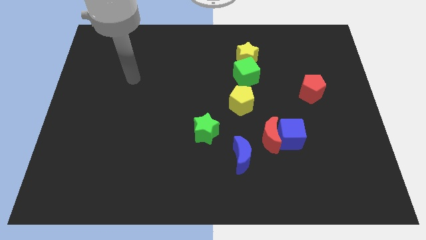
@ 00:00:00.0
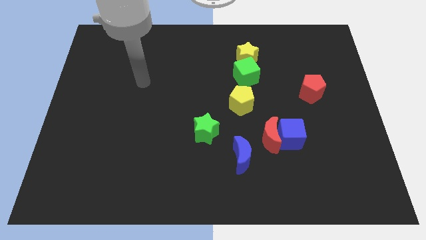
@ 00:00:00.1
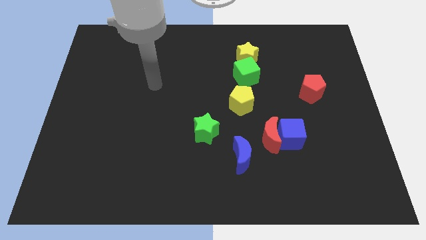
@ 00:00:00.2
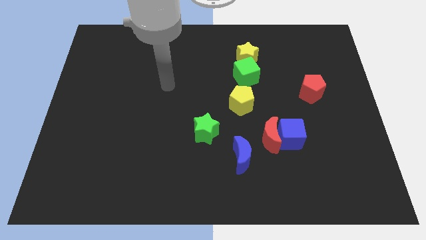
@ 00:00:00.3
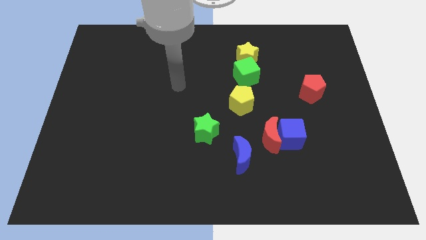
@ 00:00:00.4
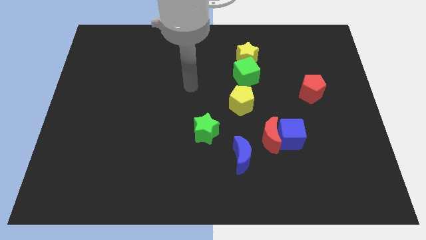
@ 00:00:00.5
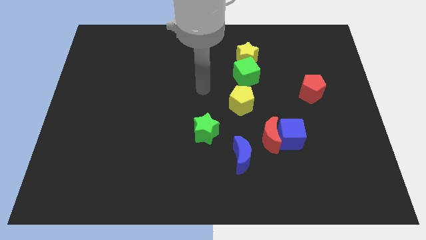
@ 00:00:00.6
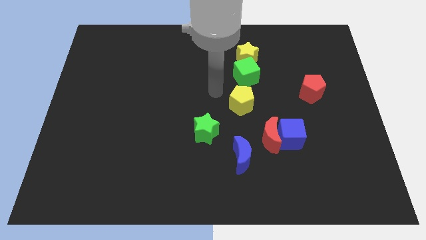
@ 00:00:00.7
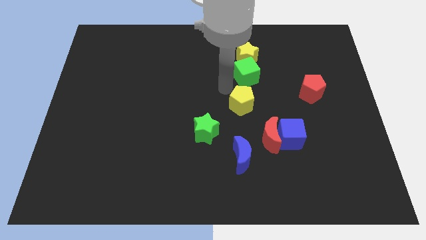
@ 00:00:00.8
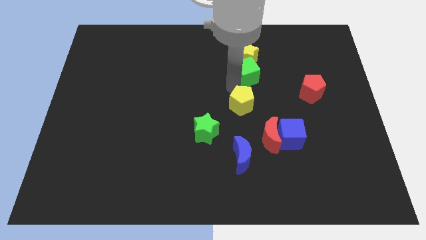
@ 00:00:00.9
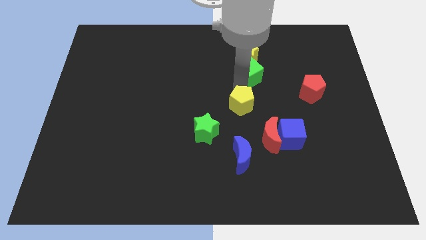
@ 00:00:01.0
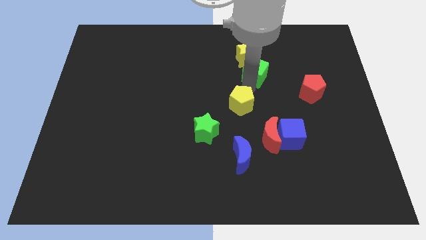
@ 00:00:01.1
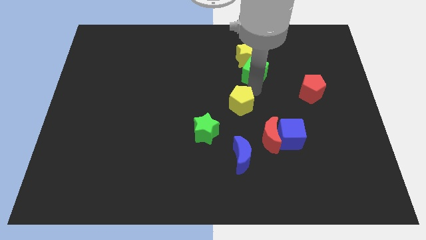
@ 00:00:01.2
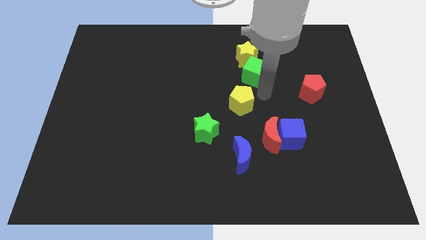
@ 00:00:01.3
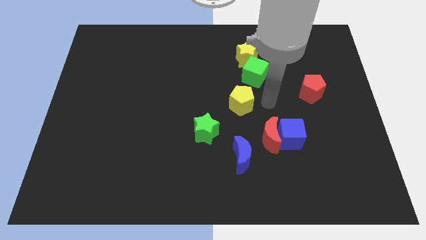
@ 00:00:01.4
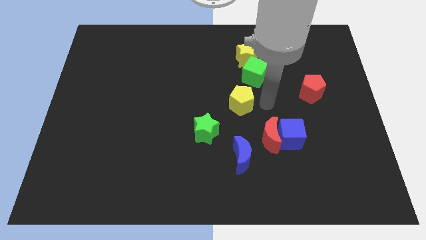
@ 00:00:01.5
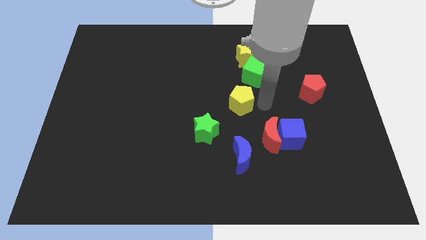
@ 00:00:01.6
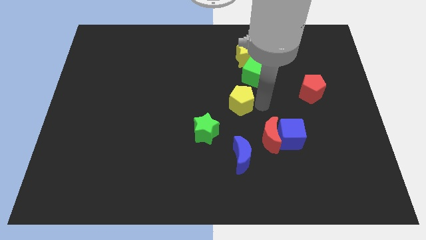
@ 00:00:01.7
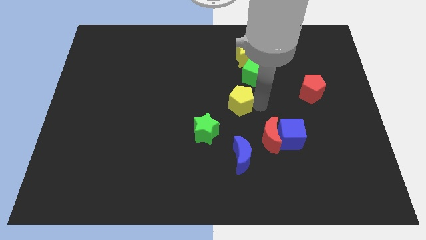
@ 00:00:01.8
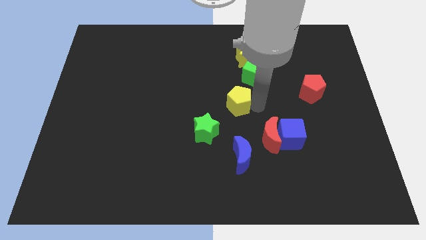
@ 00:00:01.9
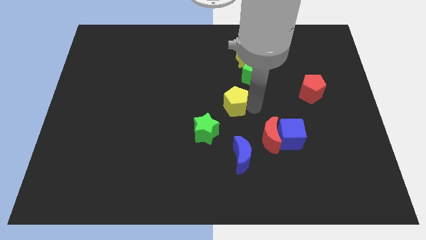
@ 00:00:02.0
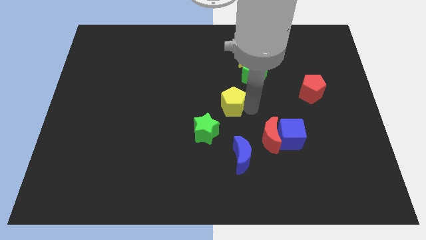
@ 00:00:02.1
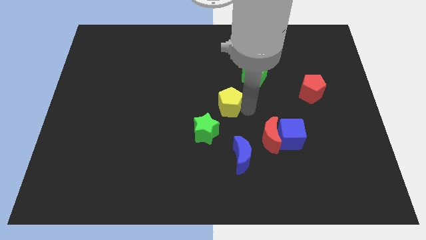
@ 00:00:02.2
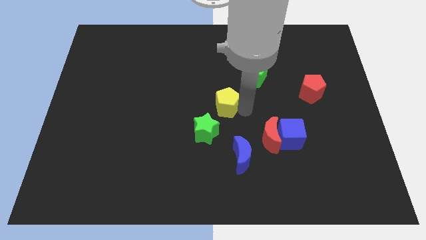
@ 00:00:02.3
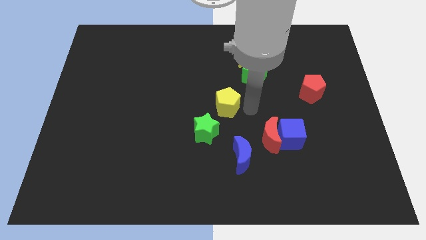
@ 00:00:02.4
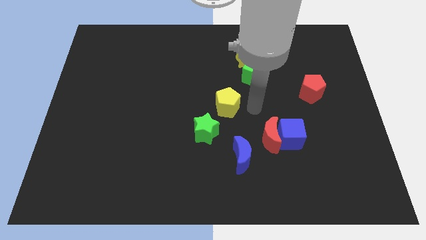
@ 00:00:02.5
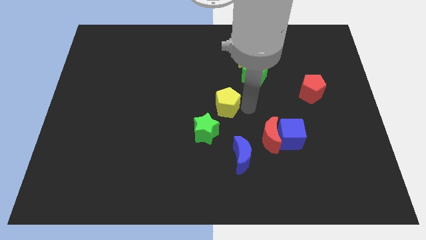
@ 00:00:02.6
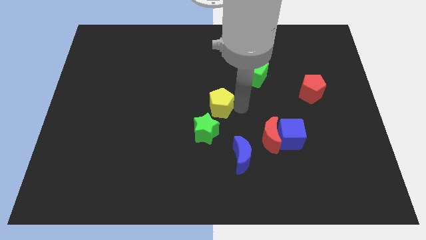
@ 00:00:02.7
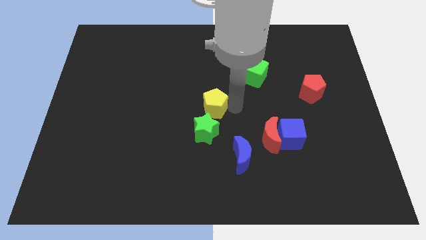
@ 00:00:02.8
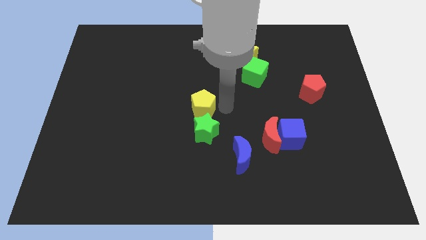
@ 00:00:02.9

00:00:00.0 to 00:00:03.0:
slightly slide the yellow pentagon left

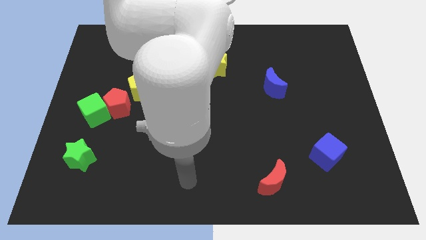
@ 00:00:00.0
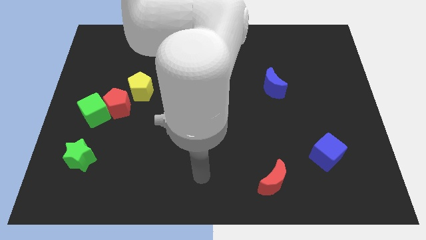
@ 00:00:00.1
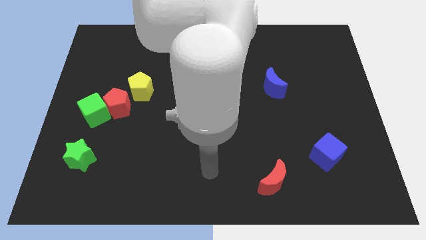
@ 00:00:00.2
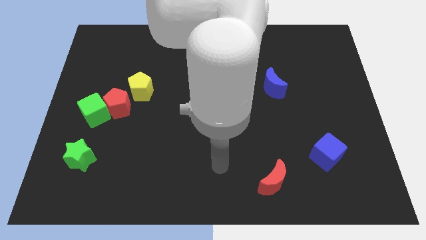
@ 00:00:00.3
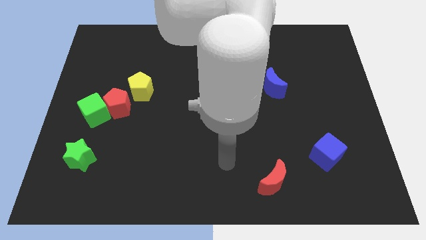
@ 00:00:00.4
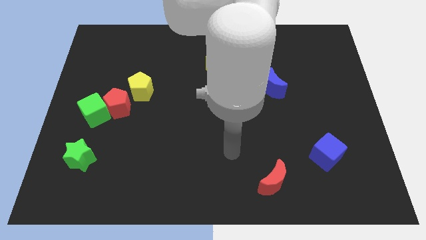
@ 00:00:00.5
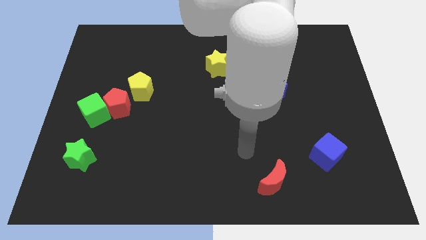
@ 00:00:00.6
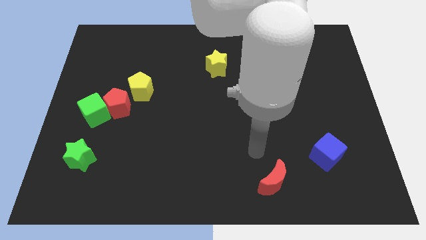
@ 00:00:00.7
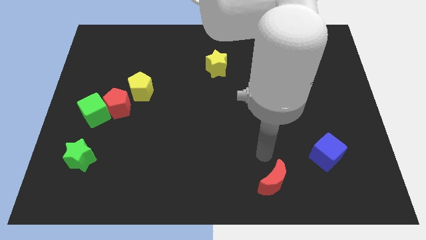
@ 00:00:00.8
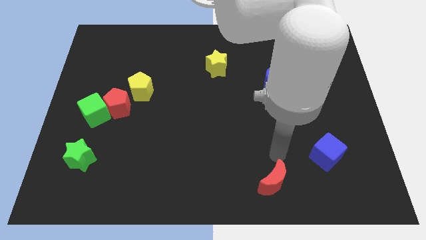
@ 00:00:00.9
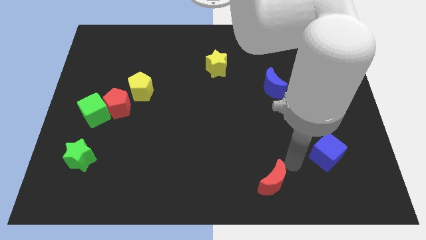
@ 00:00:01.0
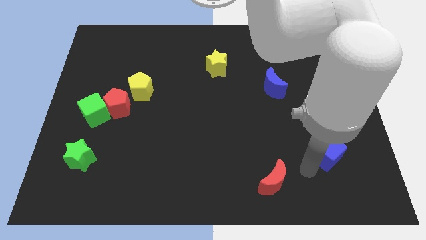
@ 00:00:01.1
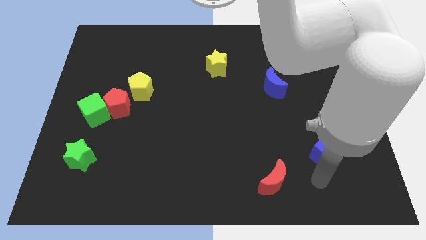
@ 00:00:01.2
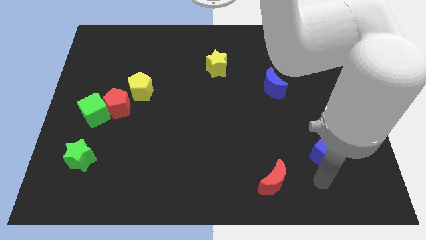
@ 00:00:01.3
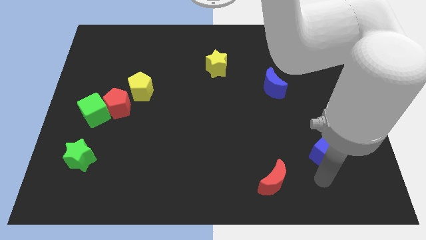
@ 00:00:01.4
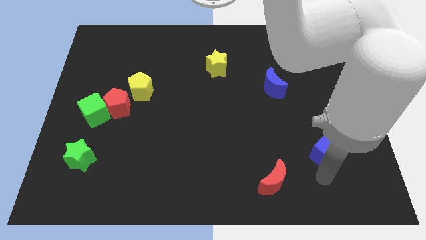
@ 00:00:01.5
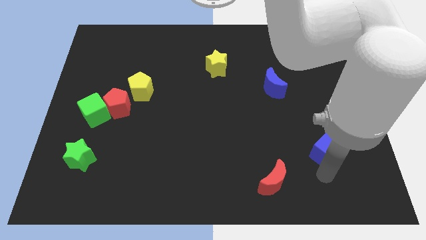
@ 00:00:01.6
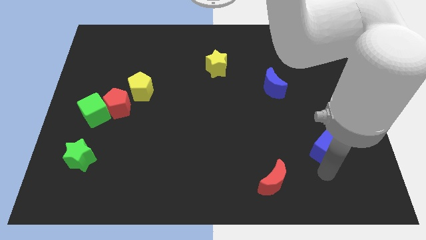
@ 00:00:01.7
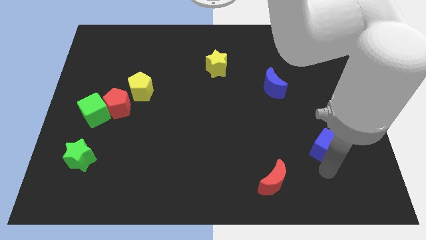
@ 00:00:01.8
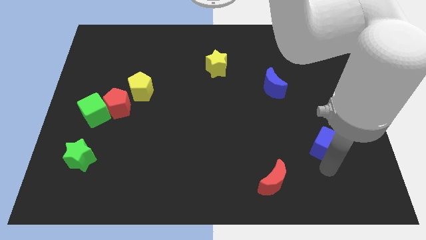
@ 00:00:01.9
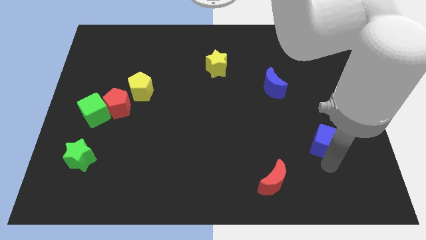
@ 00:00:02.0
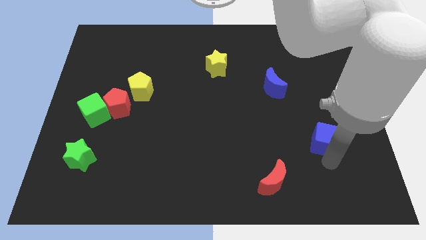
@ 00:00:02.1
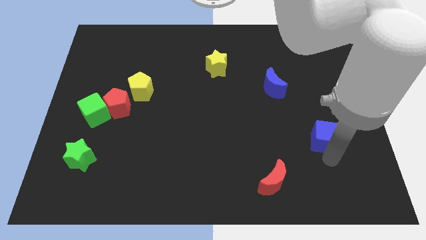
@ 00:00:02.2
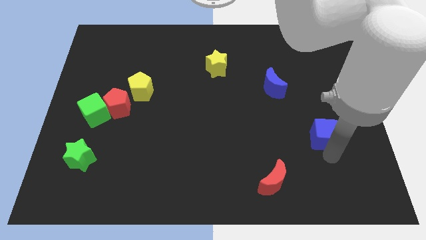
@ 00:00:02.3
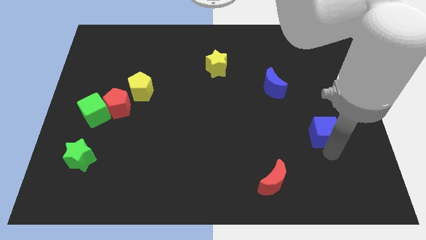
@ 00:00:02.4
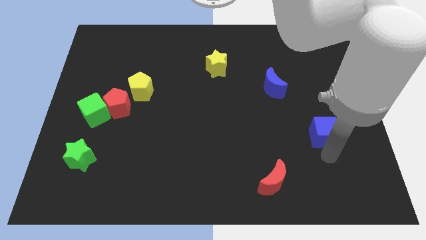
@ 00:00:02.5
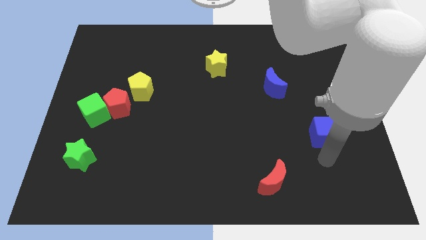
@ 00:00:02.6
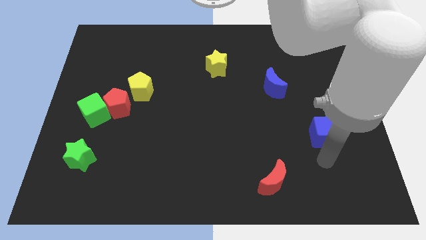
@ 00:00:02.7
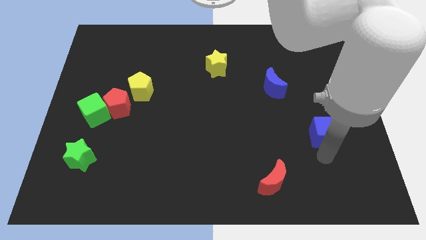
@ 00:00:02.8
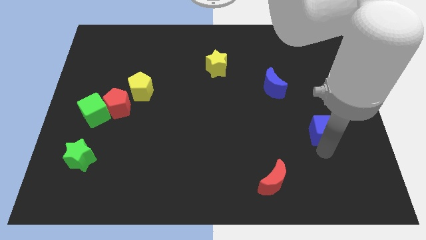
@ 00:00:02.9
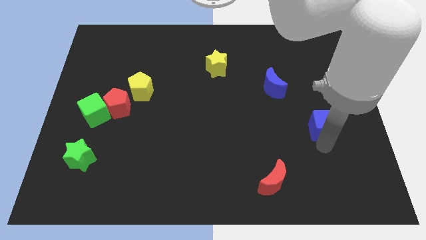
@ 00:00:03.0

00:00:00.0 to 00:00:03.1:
slide the blue cube up somewhat

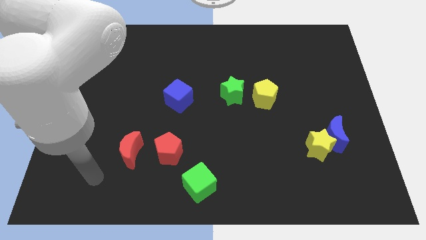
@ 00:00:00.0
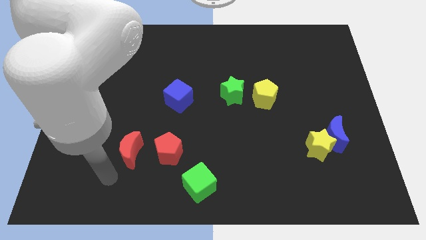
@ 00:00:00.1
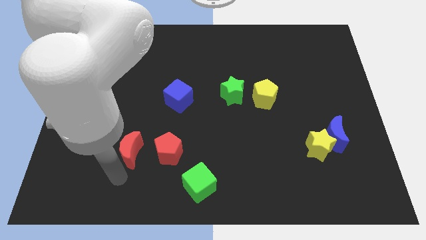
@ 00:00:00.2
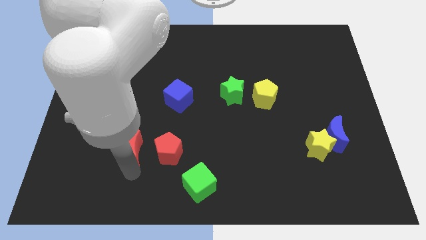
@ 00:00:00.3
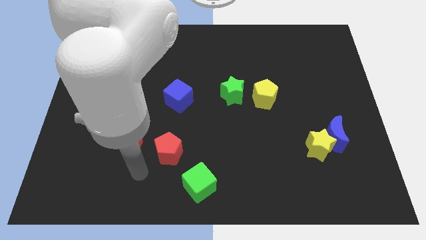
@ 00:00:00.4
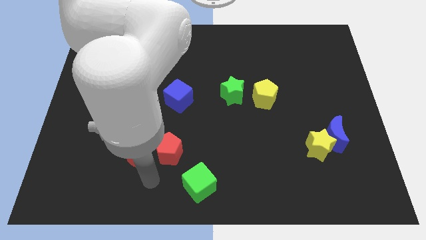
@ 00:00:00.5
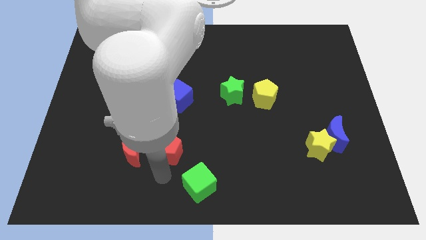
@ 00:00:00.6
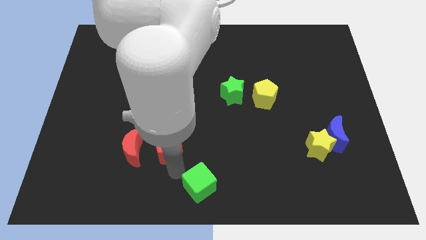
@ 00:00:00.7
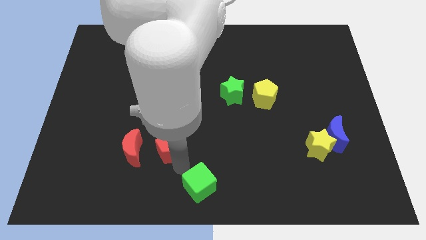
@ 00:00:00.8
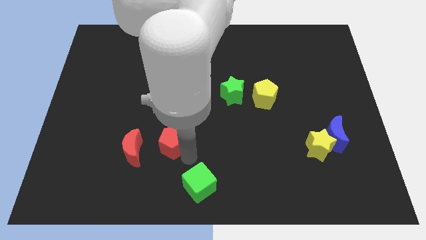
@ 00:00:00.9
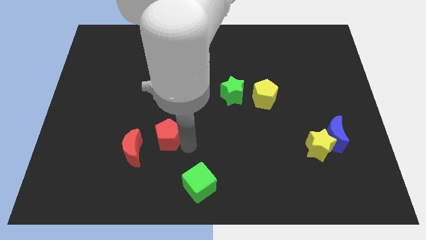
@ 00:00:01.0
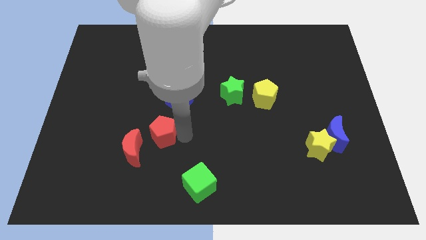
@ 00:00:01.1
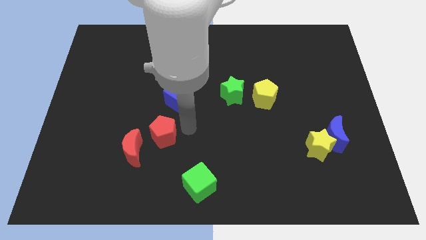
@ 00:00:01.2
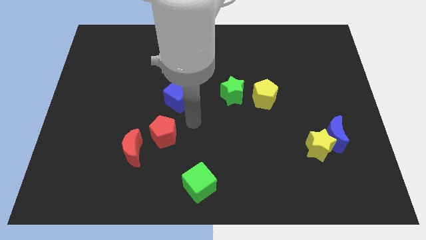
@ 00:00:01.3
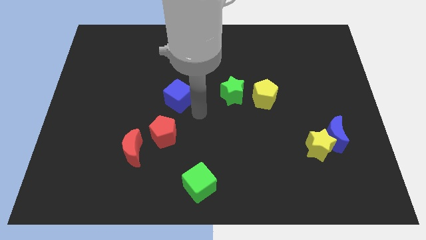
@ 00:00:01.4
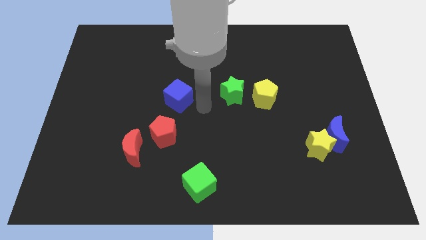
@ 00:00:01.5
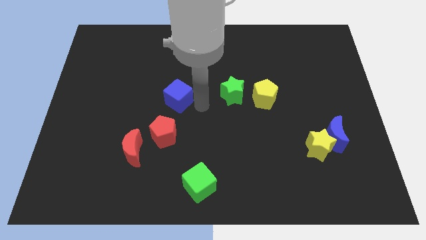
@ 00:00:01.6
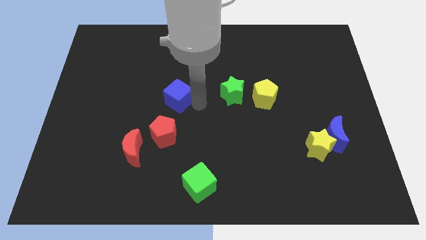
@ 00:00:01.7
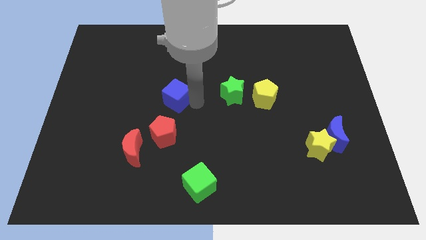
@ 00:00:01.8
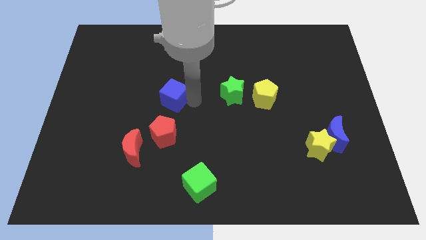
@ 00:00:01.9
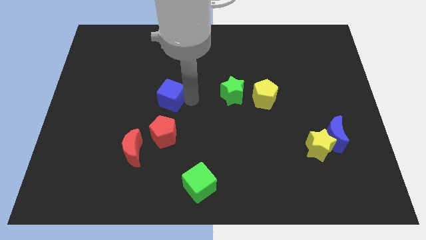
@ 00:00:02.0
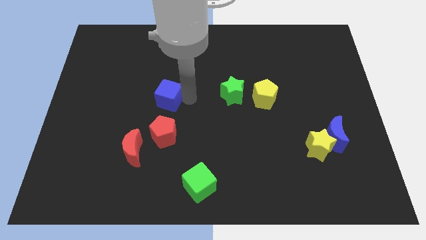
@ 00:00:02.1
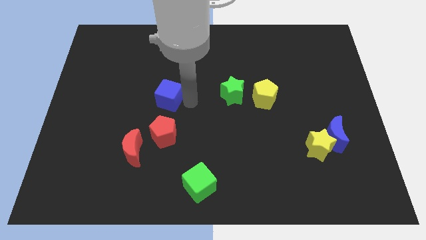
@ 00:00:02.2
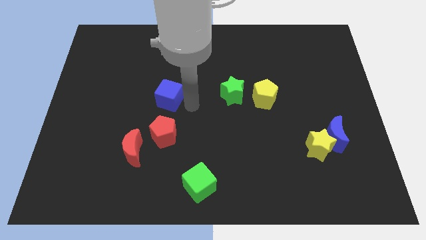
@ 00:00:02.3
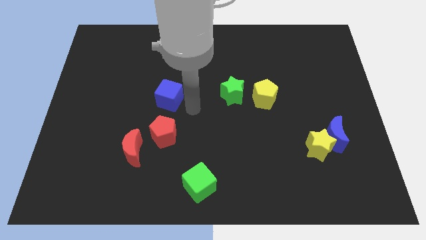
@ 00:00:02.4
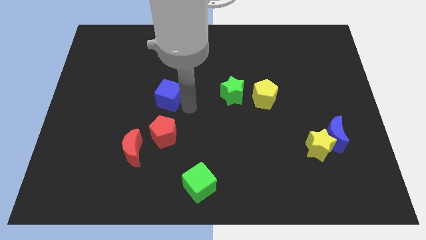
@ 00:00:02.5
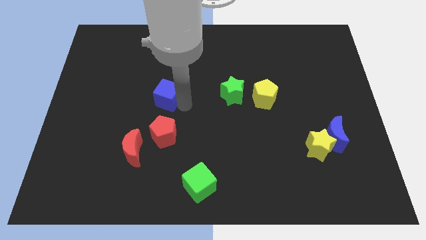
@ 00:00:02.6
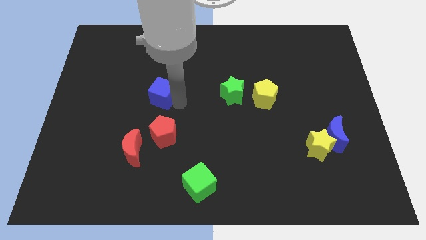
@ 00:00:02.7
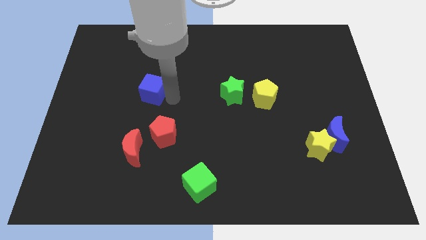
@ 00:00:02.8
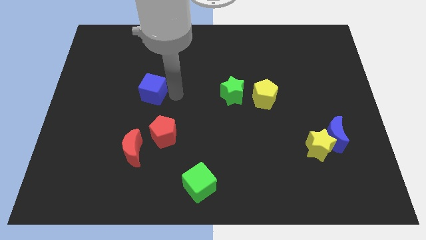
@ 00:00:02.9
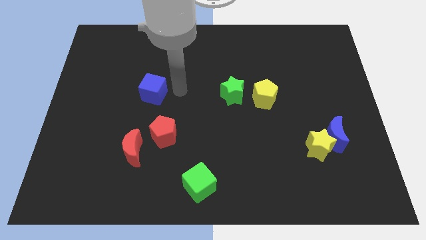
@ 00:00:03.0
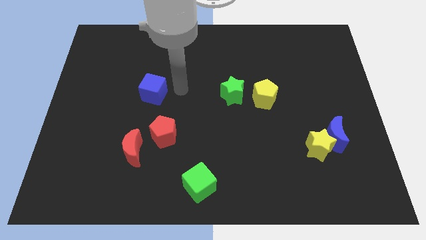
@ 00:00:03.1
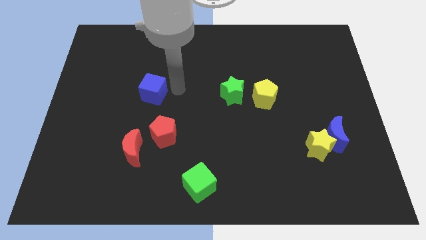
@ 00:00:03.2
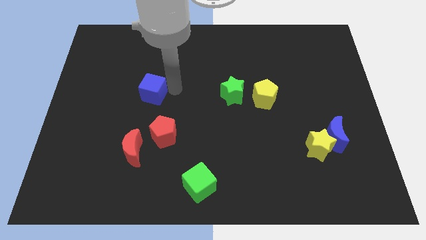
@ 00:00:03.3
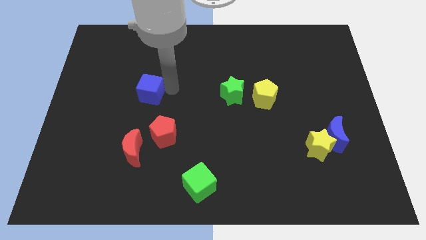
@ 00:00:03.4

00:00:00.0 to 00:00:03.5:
move the blue cube somewhat left
